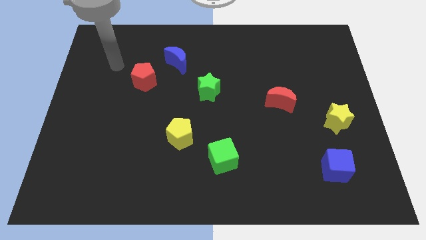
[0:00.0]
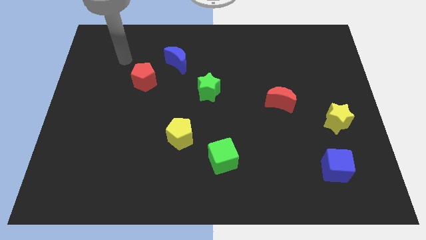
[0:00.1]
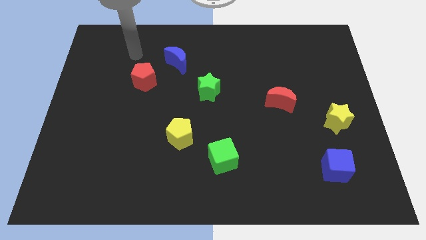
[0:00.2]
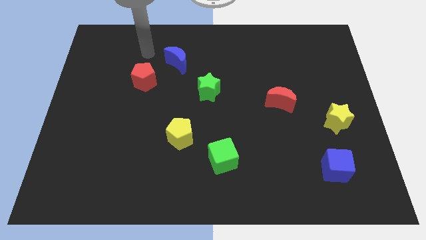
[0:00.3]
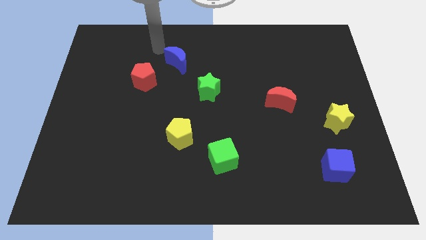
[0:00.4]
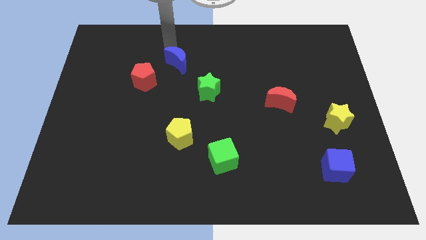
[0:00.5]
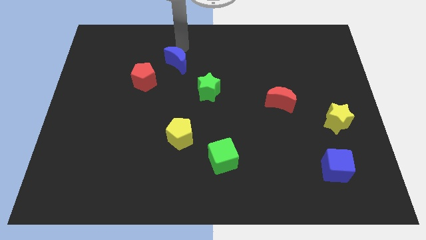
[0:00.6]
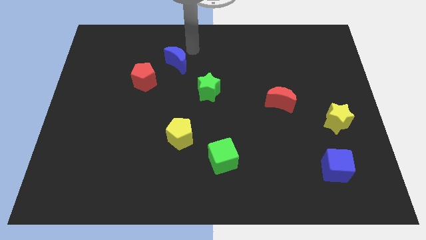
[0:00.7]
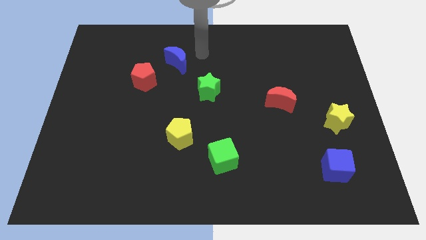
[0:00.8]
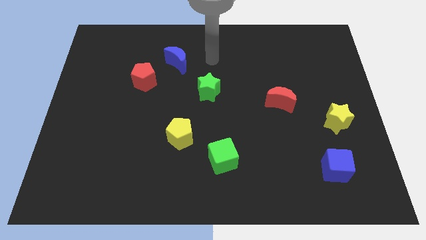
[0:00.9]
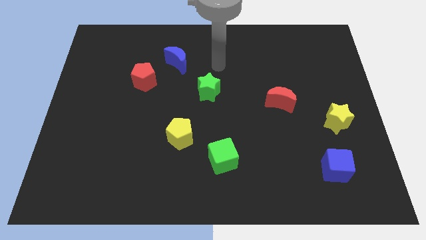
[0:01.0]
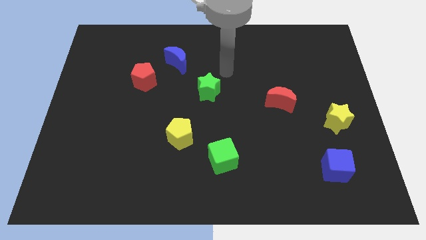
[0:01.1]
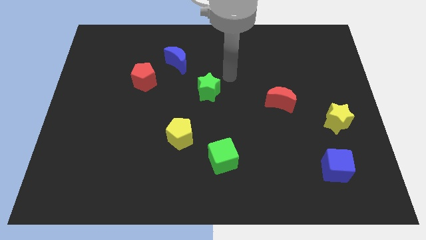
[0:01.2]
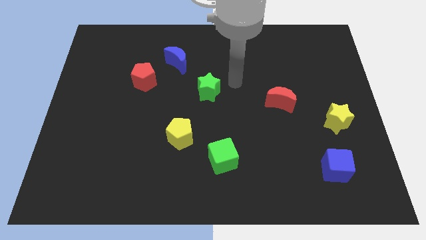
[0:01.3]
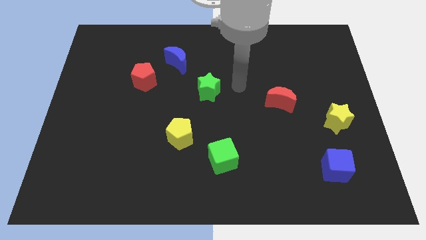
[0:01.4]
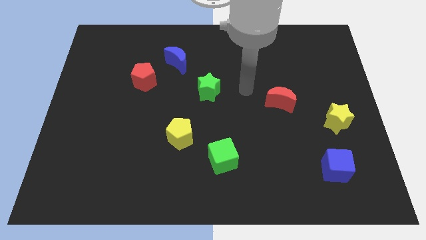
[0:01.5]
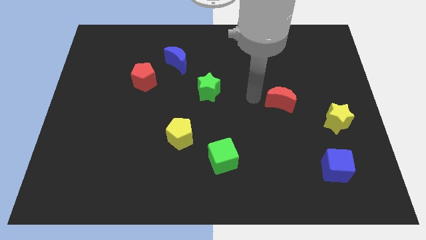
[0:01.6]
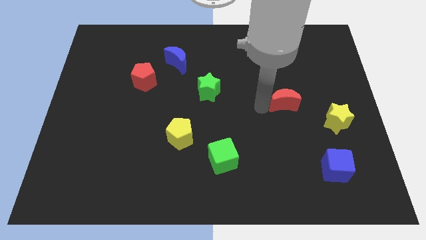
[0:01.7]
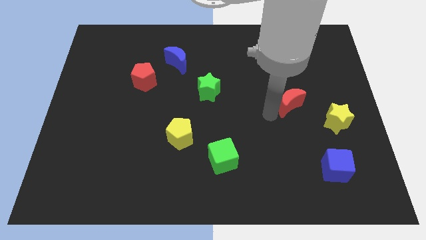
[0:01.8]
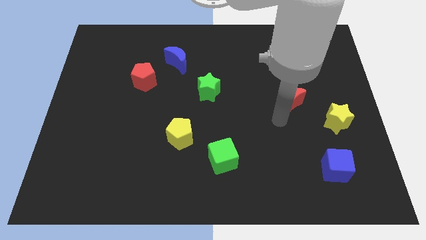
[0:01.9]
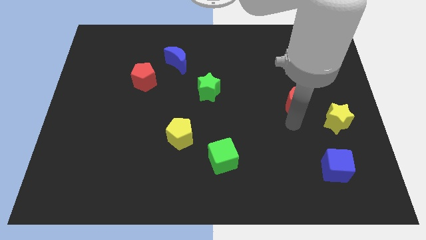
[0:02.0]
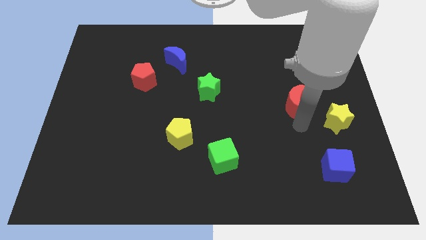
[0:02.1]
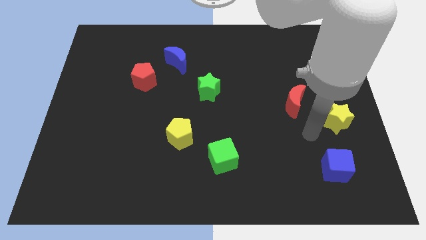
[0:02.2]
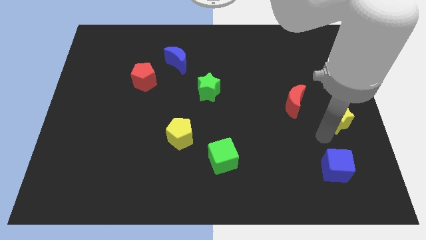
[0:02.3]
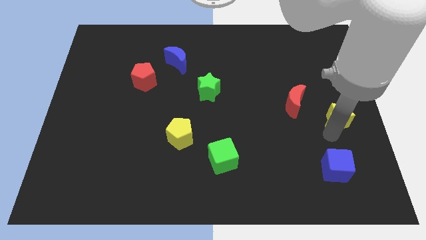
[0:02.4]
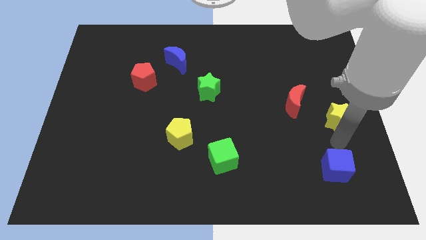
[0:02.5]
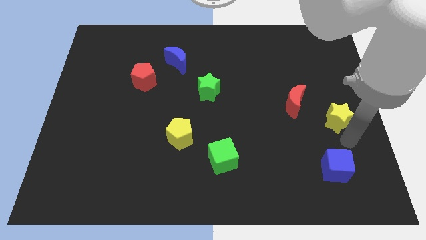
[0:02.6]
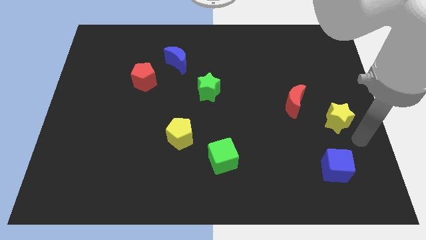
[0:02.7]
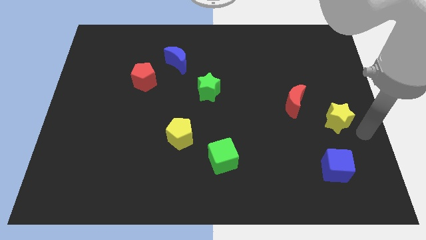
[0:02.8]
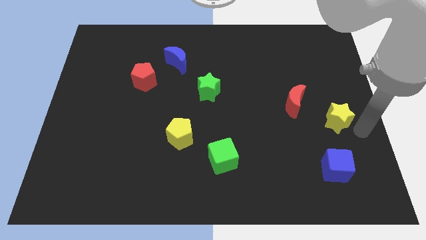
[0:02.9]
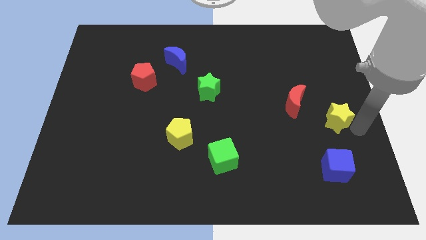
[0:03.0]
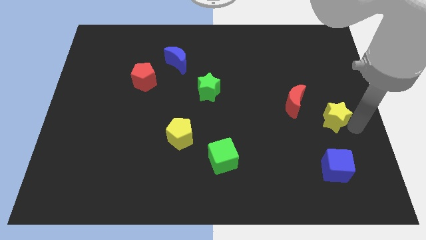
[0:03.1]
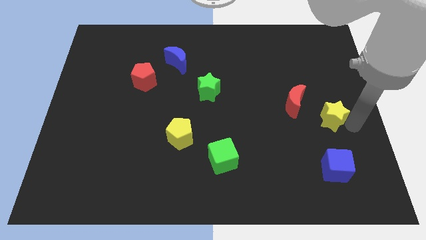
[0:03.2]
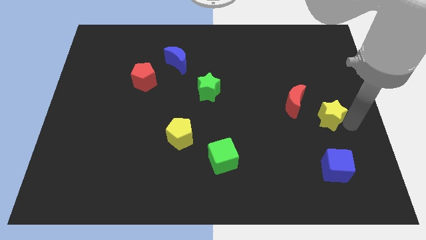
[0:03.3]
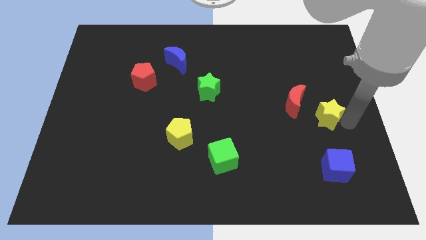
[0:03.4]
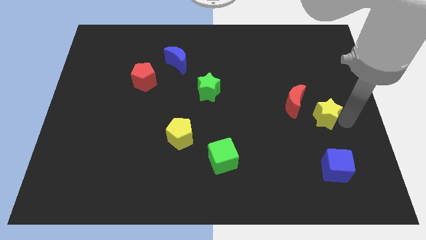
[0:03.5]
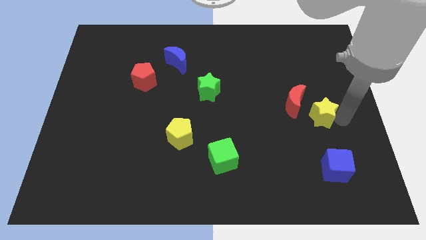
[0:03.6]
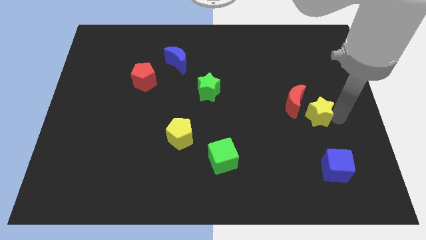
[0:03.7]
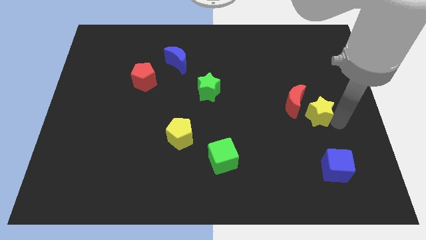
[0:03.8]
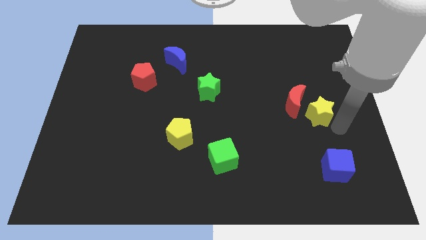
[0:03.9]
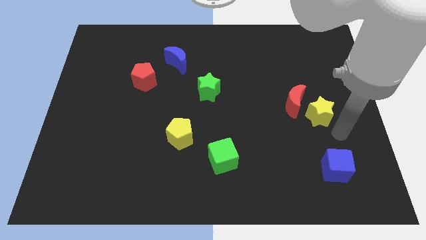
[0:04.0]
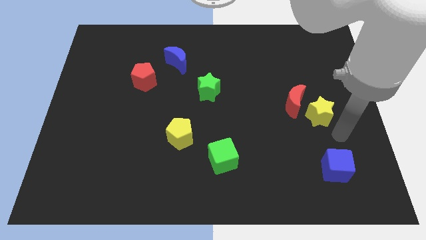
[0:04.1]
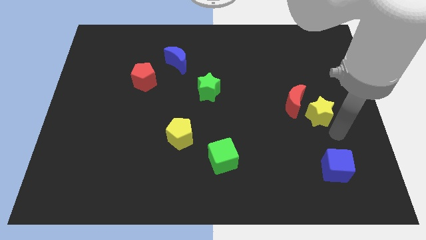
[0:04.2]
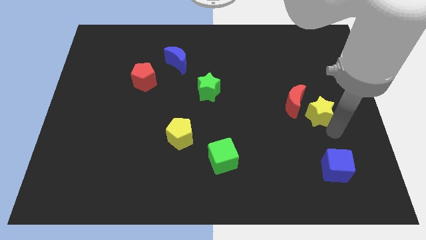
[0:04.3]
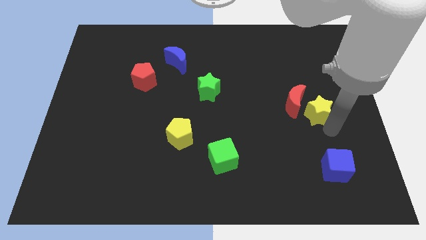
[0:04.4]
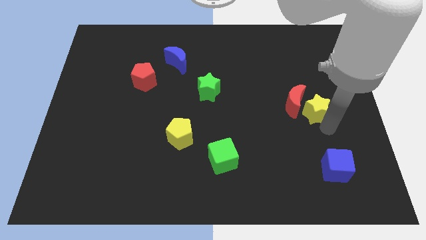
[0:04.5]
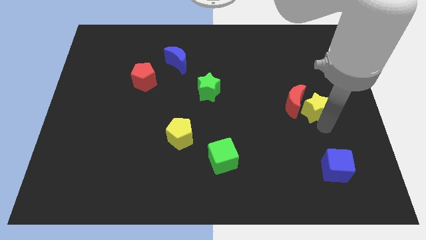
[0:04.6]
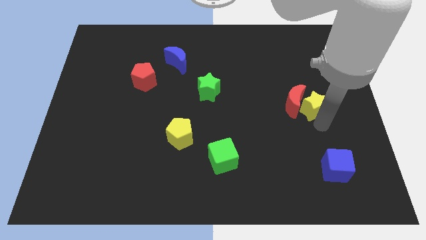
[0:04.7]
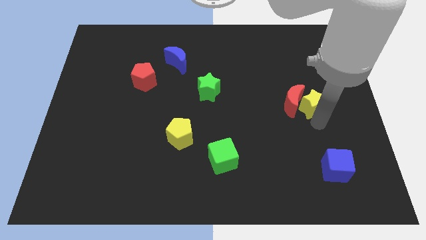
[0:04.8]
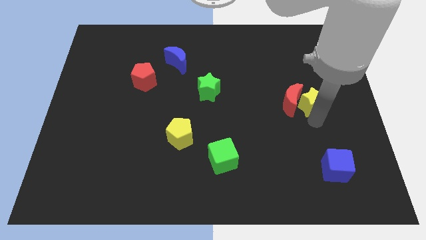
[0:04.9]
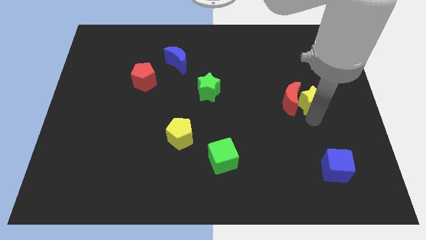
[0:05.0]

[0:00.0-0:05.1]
slightly move the yellow star upwards and to the left diagonally

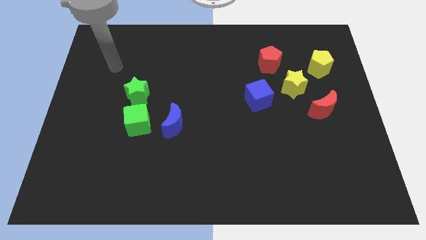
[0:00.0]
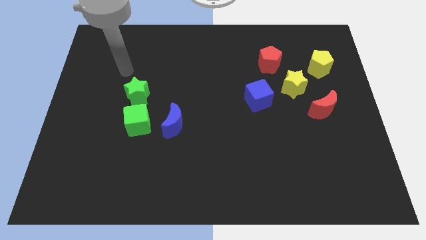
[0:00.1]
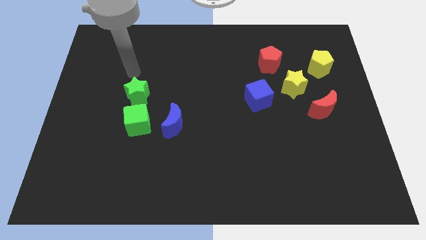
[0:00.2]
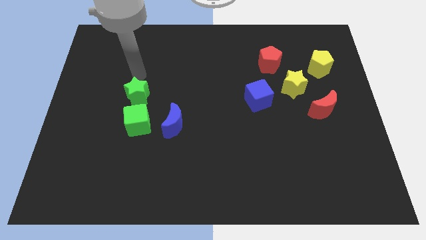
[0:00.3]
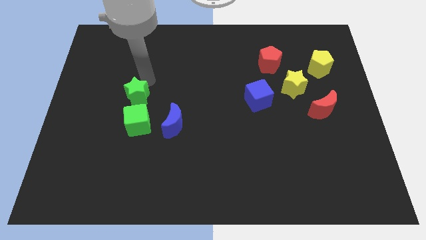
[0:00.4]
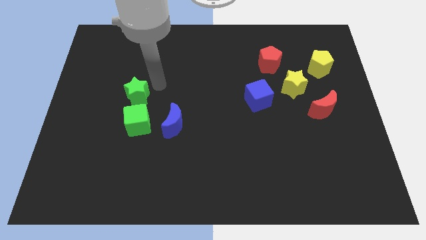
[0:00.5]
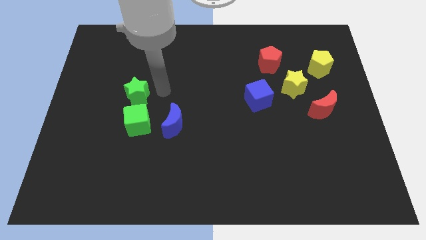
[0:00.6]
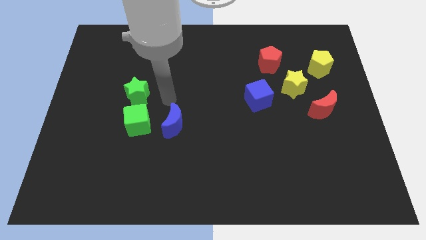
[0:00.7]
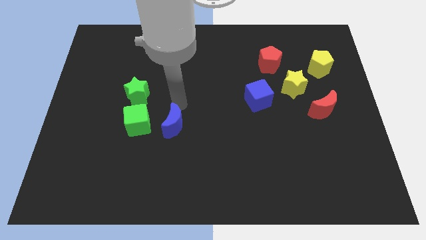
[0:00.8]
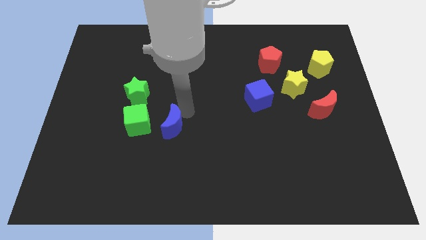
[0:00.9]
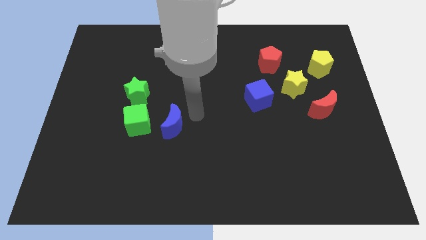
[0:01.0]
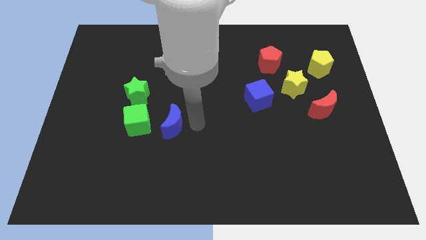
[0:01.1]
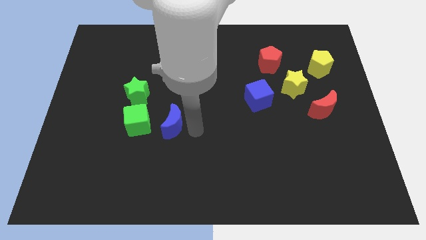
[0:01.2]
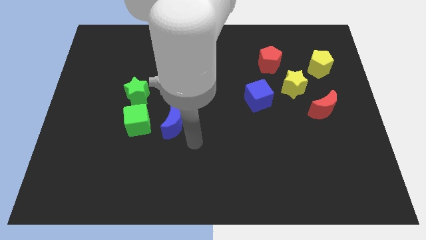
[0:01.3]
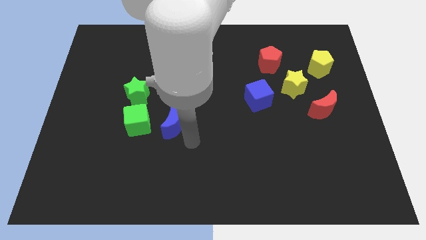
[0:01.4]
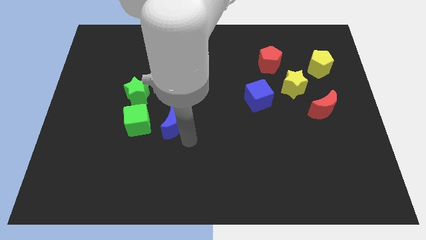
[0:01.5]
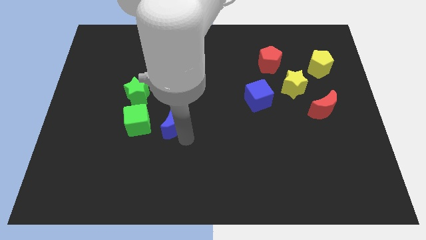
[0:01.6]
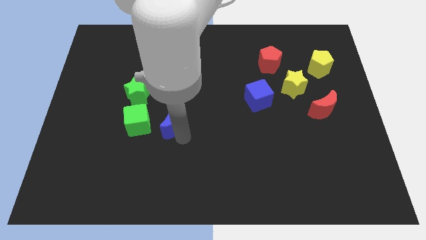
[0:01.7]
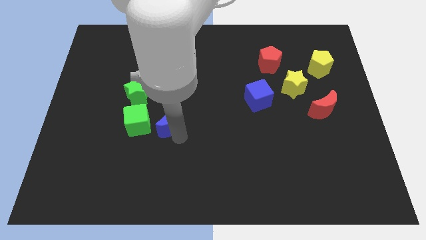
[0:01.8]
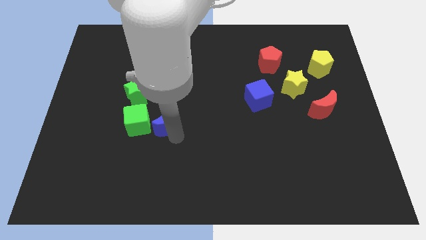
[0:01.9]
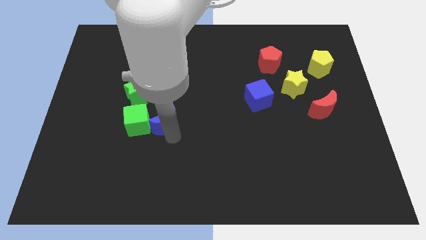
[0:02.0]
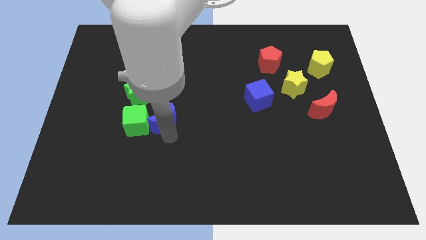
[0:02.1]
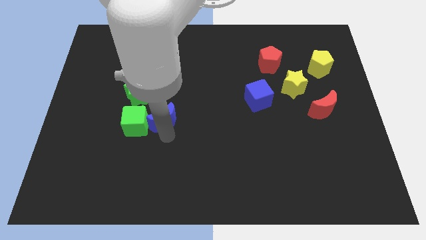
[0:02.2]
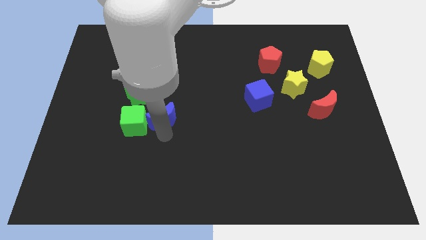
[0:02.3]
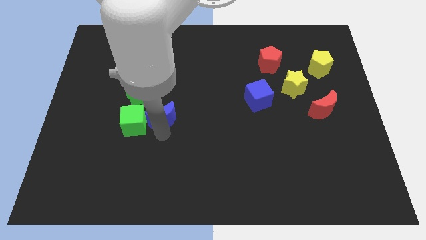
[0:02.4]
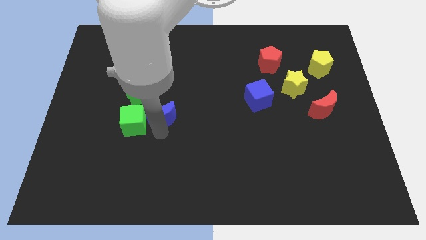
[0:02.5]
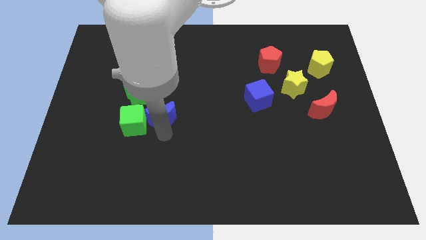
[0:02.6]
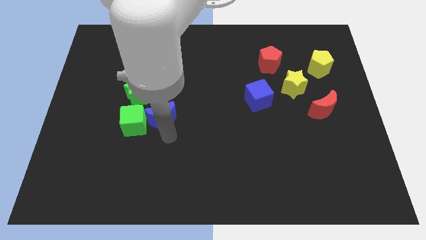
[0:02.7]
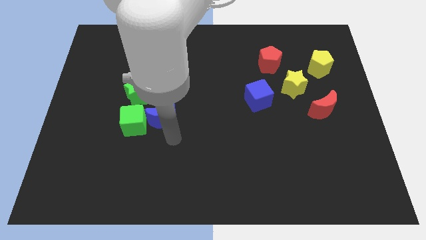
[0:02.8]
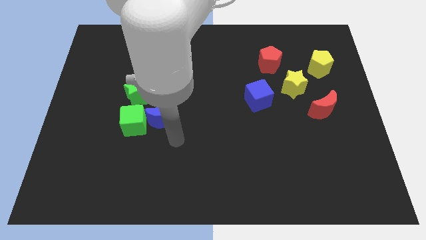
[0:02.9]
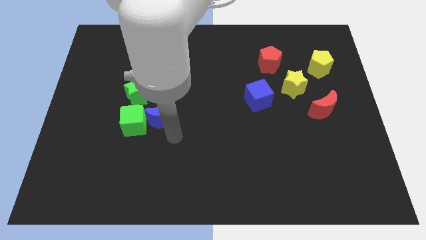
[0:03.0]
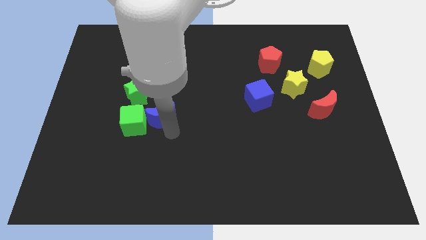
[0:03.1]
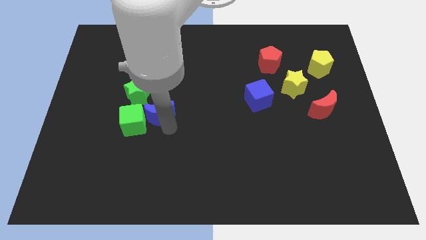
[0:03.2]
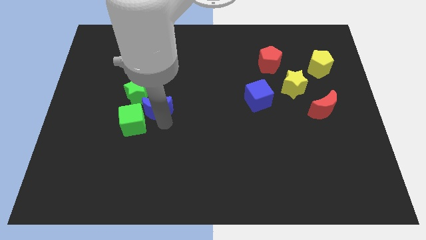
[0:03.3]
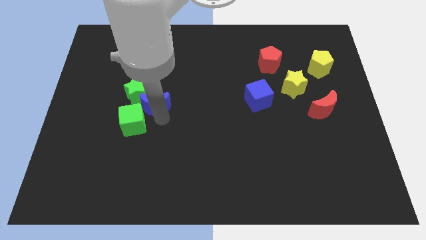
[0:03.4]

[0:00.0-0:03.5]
slide the blue moon a bit up and left
